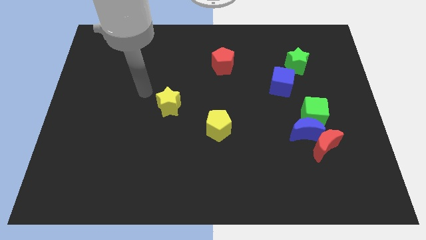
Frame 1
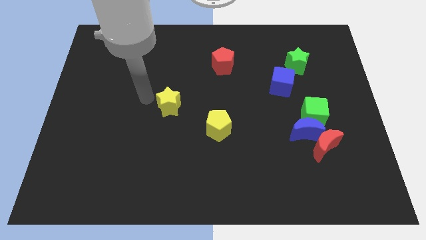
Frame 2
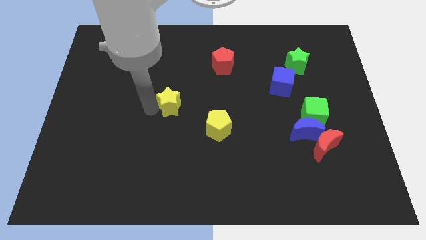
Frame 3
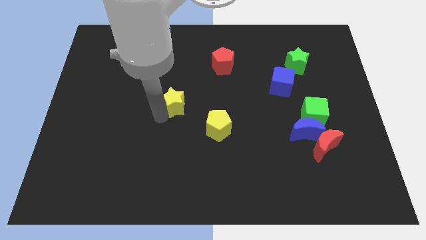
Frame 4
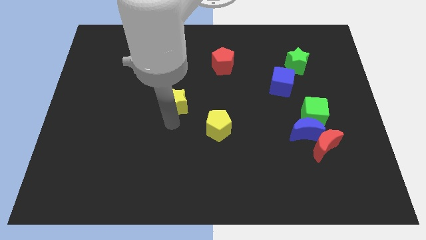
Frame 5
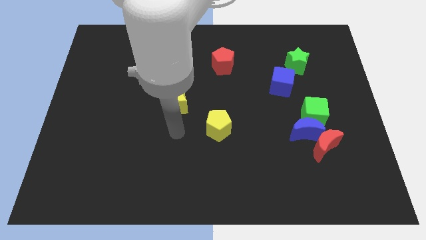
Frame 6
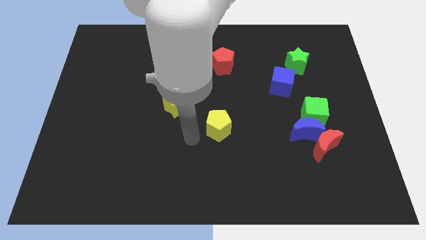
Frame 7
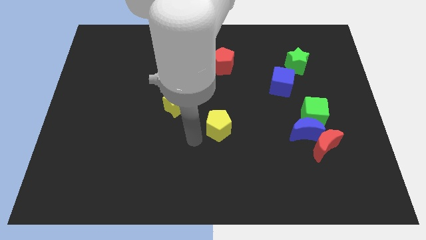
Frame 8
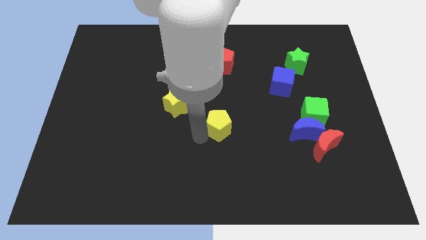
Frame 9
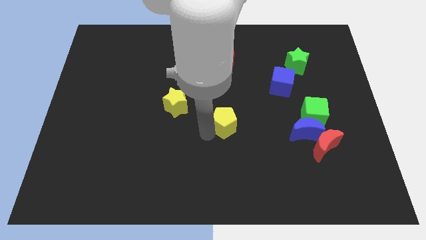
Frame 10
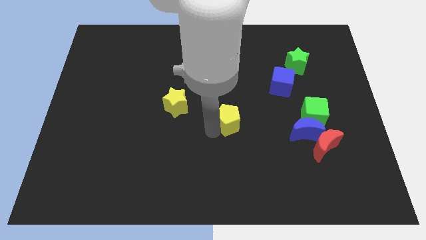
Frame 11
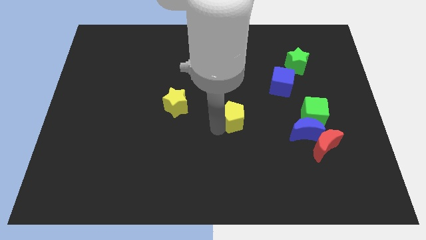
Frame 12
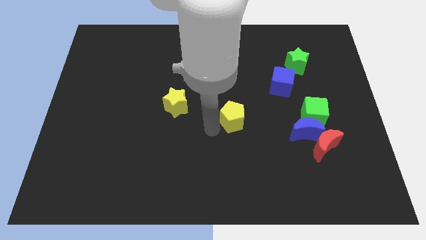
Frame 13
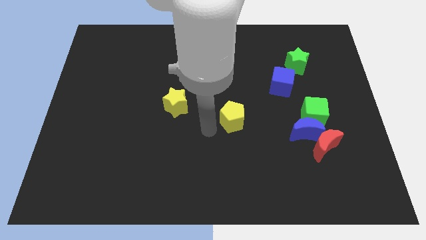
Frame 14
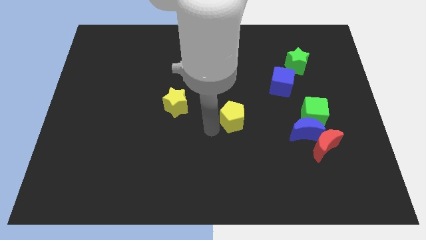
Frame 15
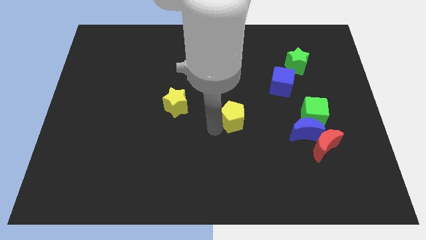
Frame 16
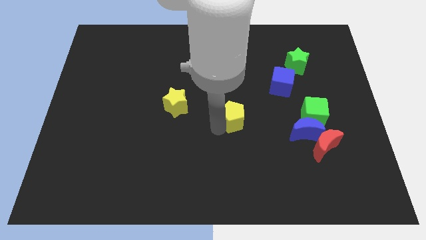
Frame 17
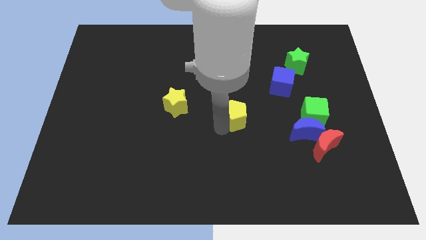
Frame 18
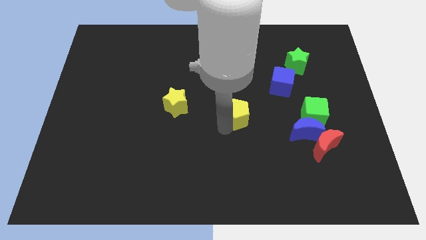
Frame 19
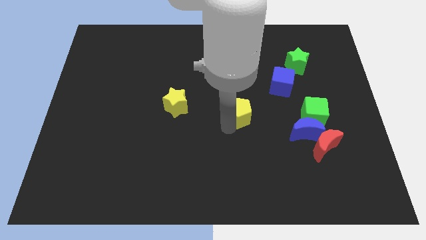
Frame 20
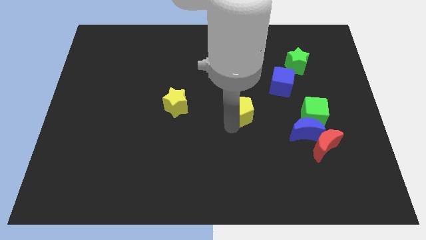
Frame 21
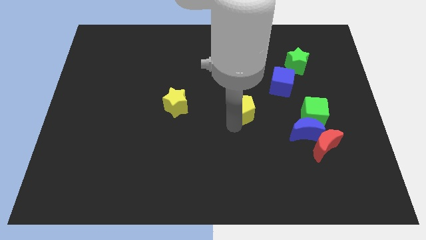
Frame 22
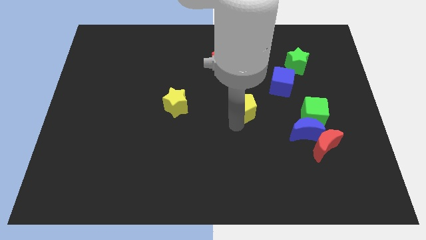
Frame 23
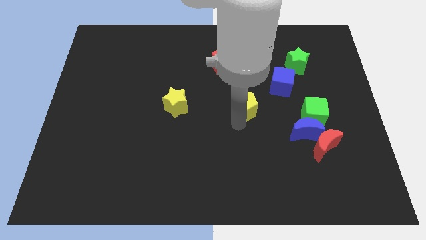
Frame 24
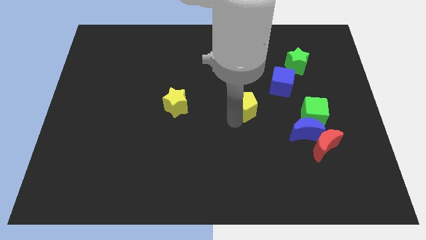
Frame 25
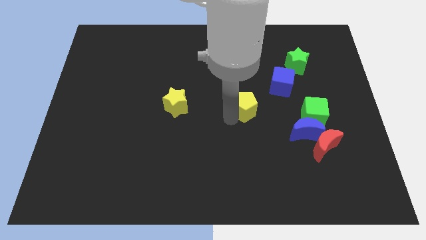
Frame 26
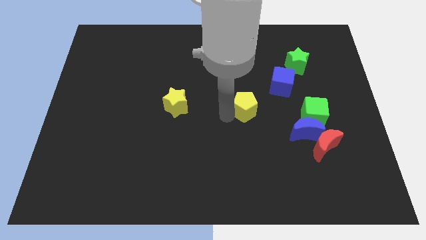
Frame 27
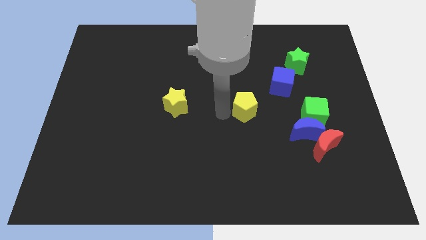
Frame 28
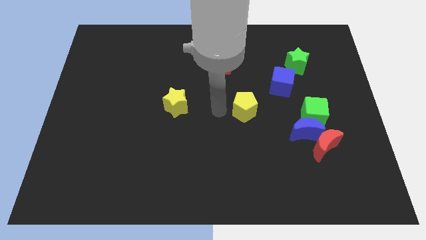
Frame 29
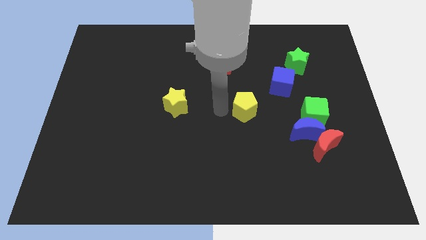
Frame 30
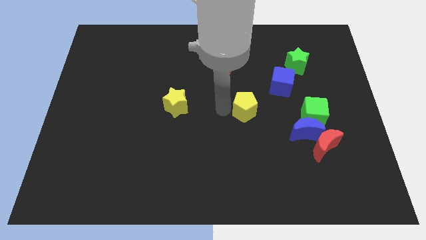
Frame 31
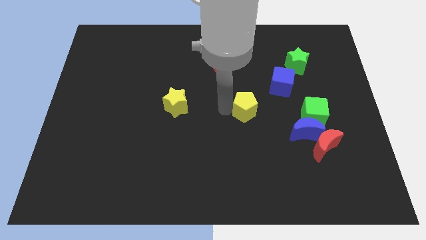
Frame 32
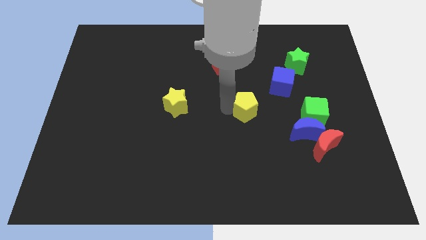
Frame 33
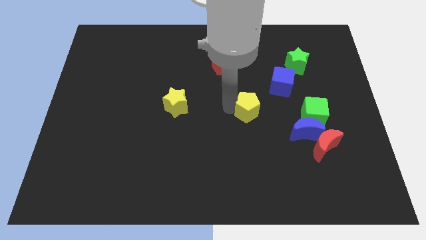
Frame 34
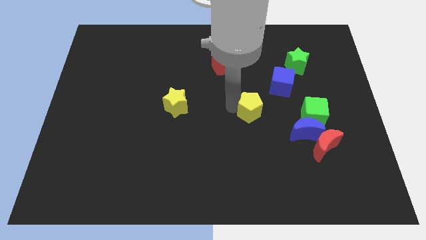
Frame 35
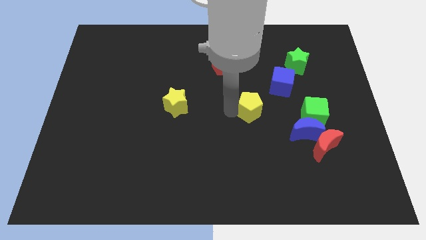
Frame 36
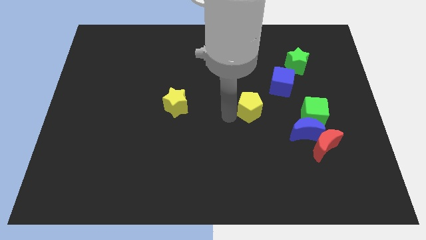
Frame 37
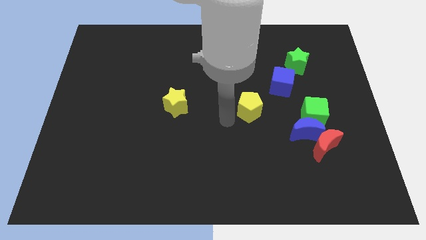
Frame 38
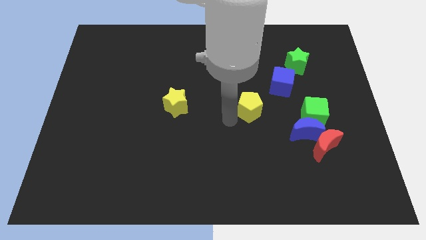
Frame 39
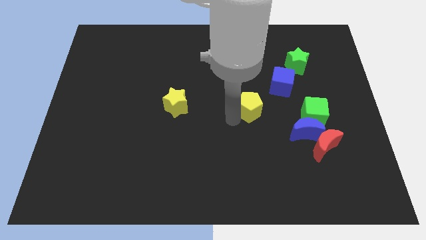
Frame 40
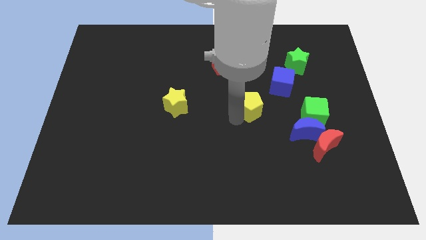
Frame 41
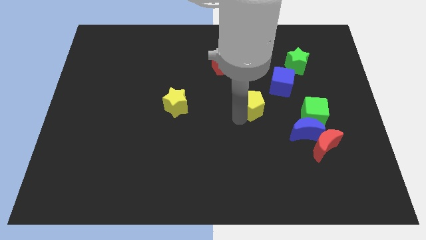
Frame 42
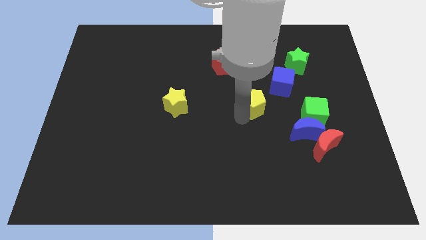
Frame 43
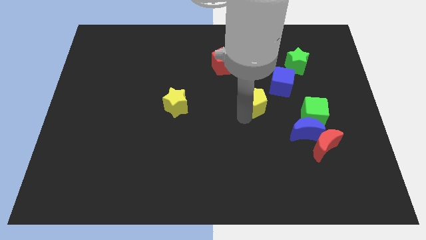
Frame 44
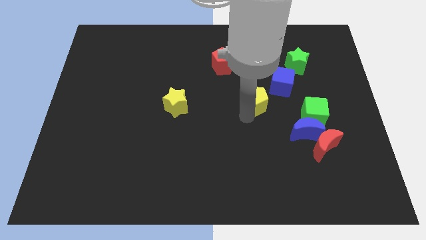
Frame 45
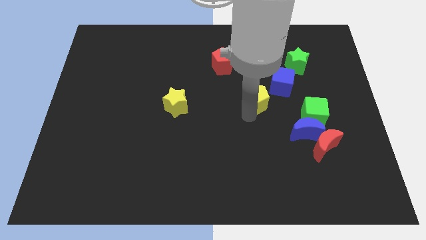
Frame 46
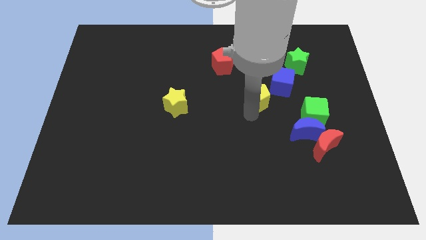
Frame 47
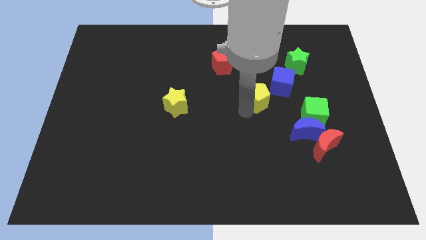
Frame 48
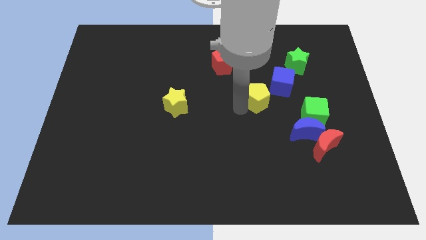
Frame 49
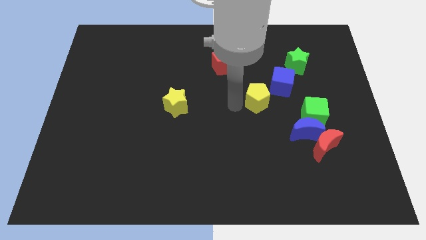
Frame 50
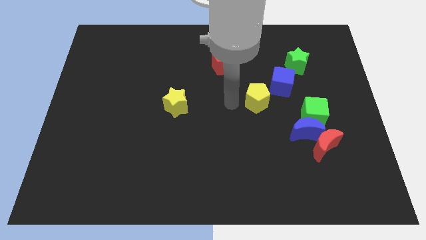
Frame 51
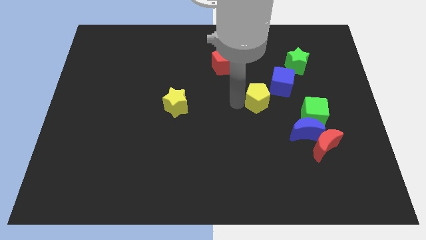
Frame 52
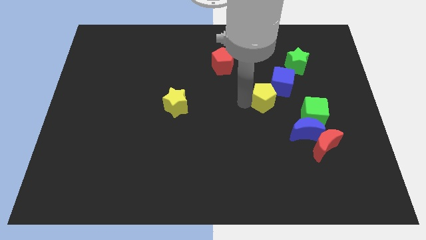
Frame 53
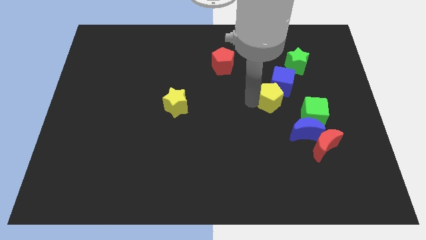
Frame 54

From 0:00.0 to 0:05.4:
push the yellow pentagon to the top left side of the green cube

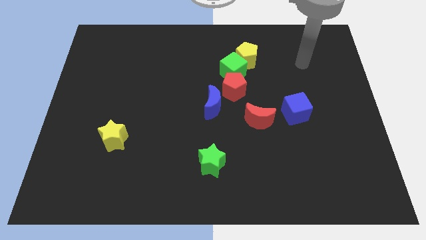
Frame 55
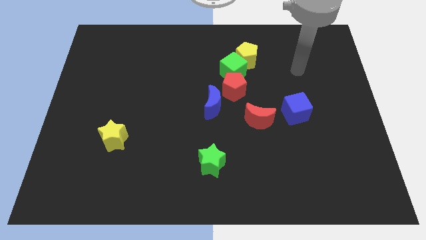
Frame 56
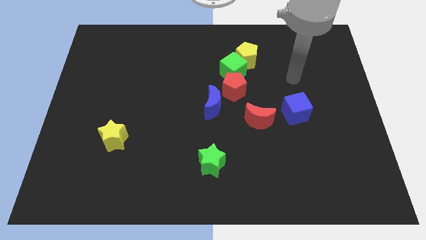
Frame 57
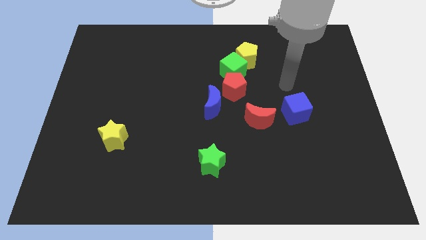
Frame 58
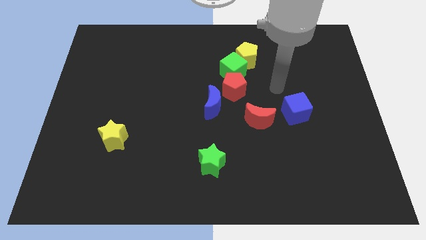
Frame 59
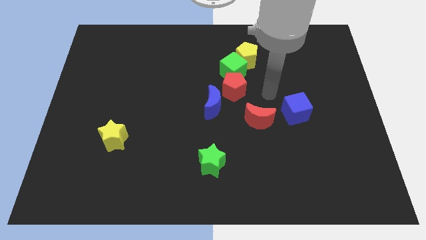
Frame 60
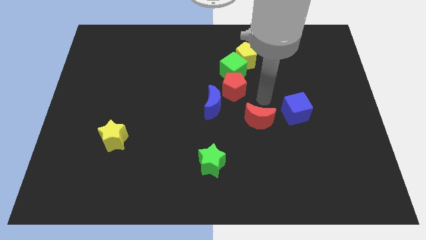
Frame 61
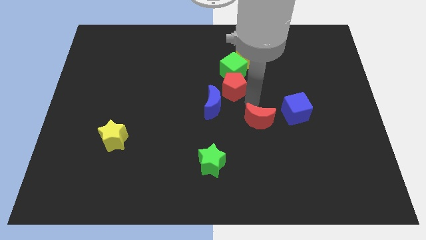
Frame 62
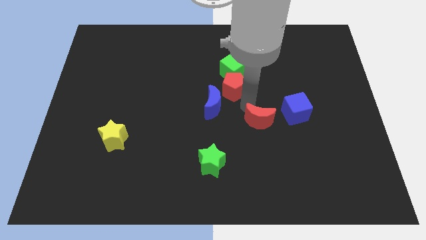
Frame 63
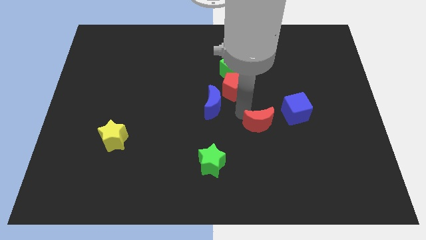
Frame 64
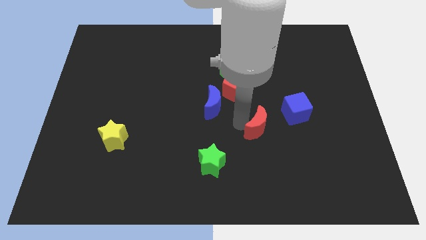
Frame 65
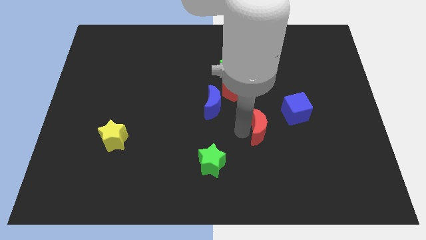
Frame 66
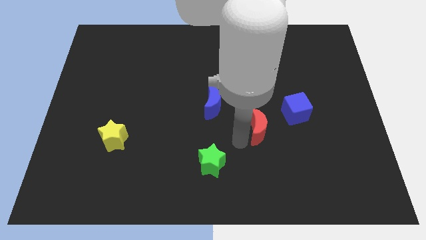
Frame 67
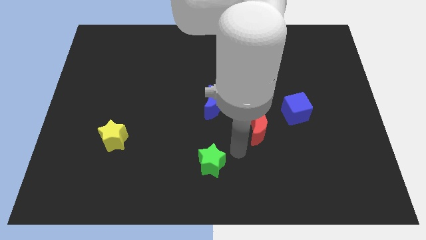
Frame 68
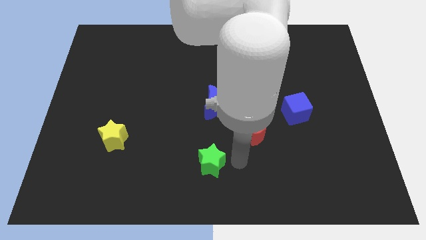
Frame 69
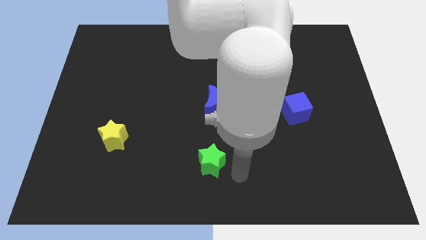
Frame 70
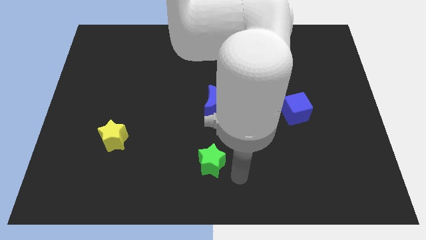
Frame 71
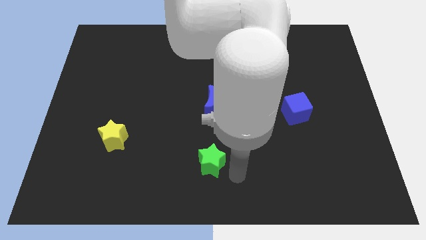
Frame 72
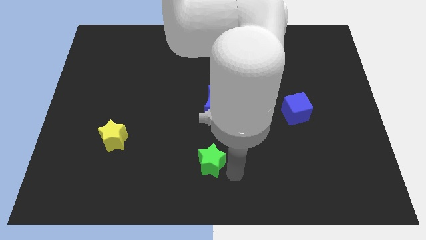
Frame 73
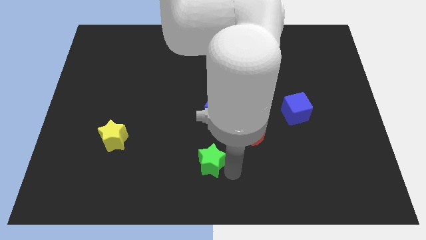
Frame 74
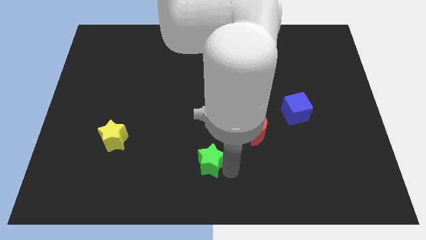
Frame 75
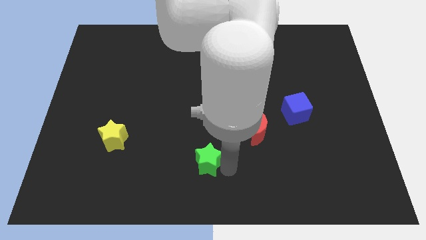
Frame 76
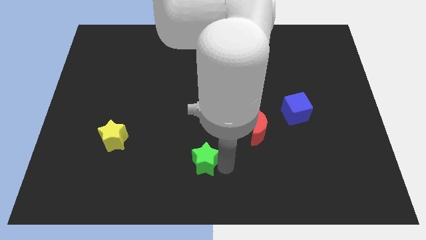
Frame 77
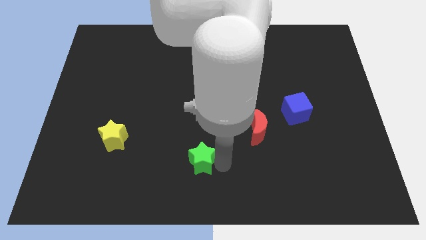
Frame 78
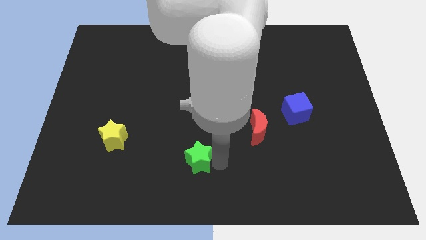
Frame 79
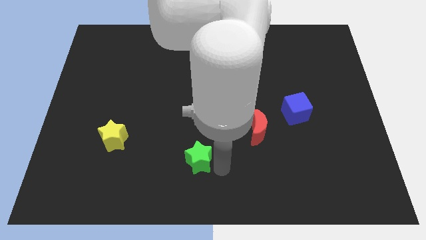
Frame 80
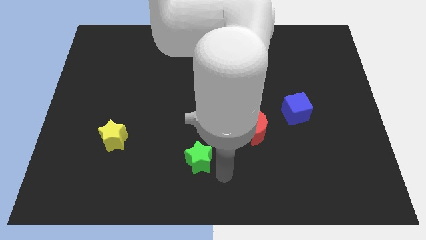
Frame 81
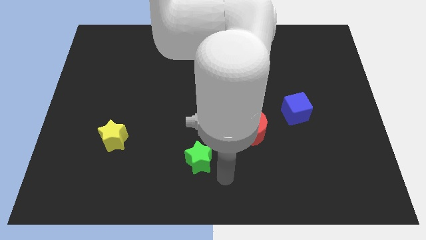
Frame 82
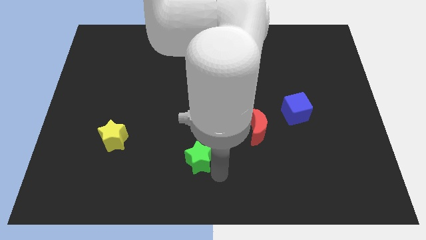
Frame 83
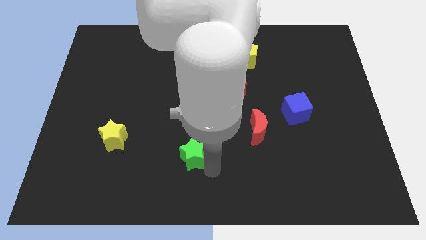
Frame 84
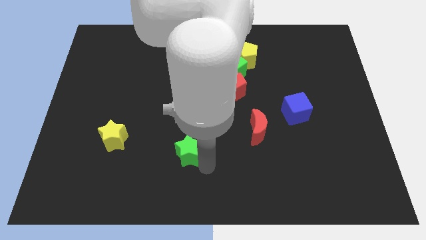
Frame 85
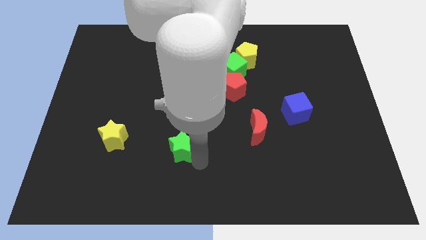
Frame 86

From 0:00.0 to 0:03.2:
put the green star to the right side of the yellow star
